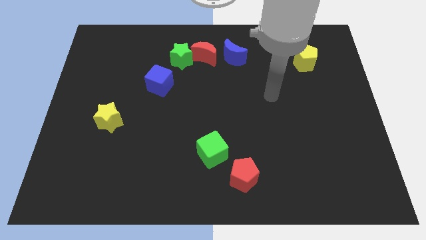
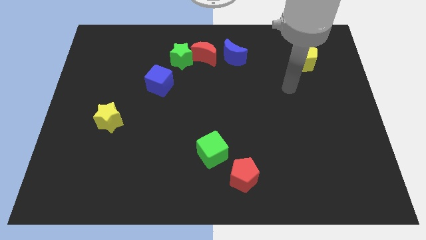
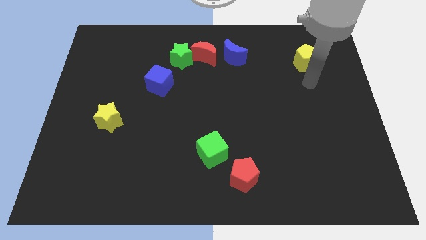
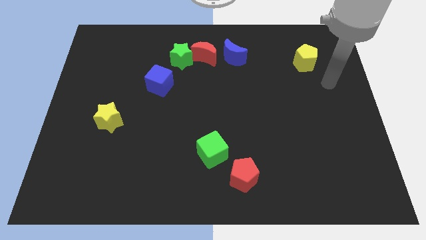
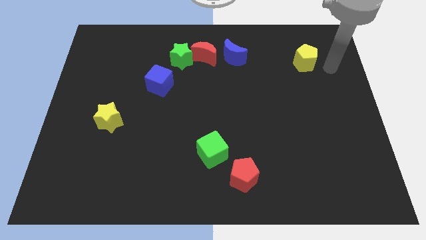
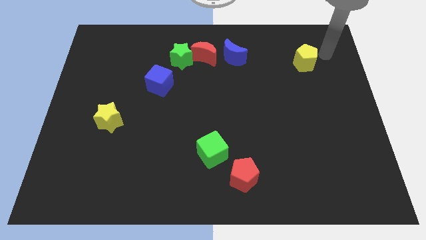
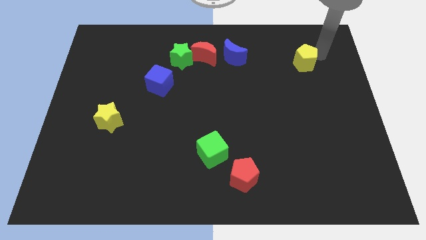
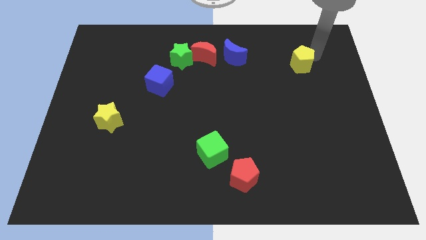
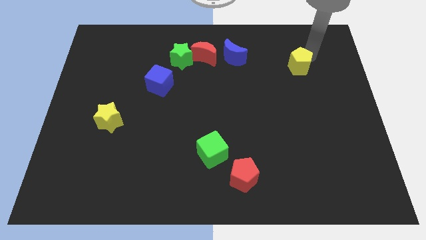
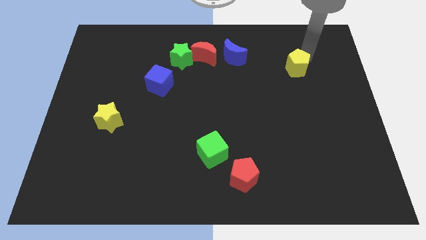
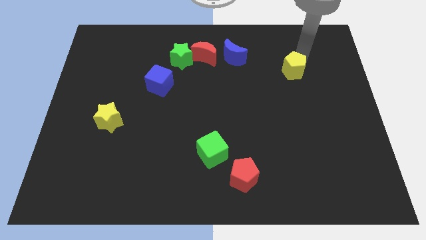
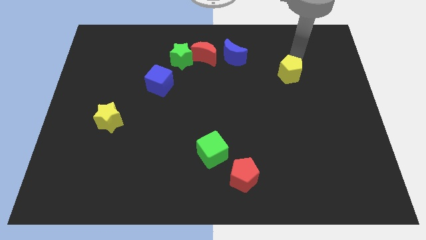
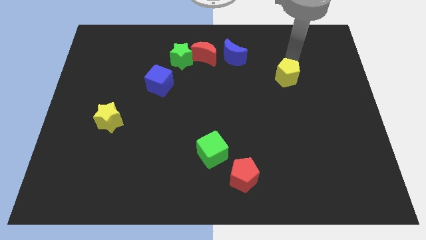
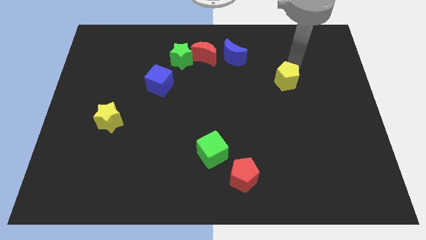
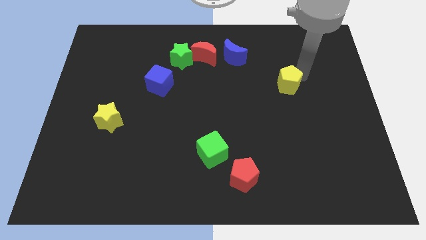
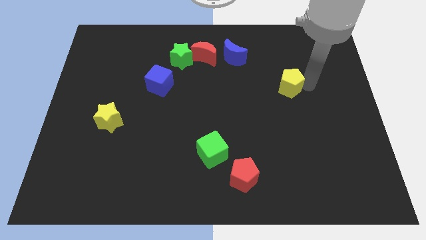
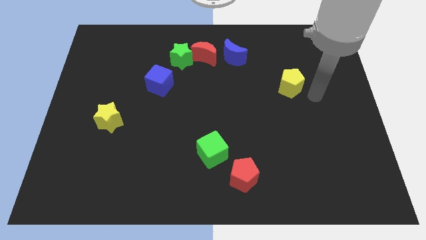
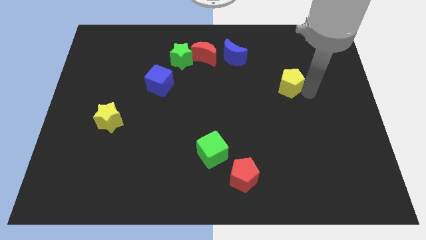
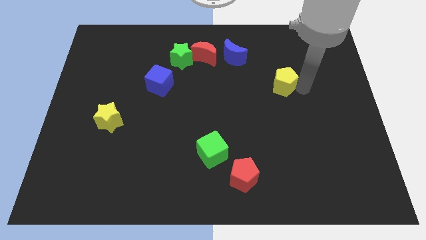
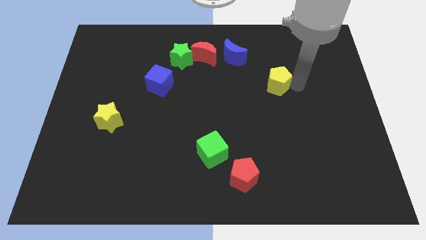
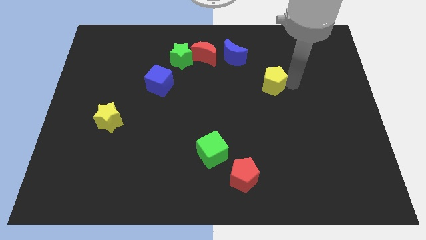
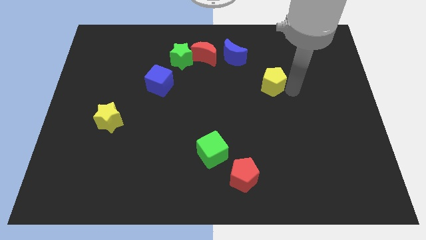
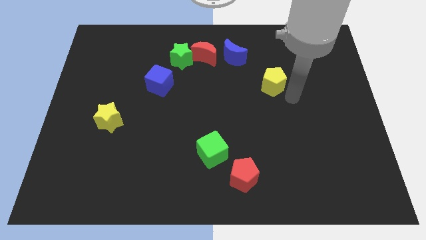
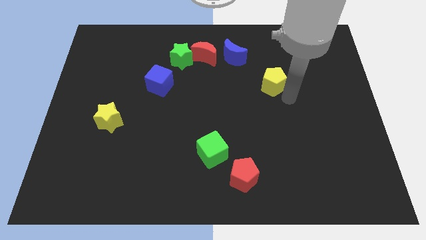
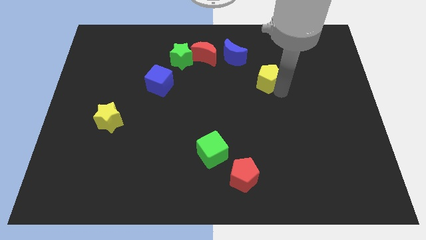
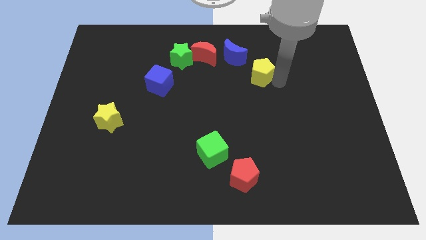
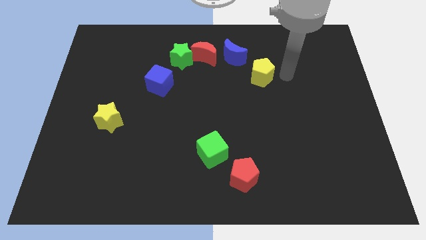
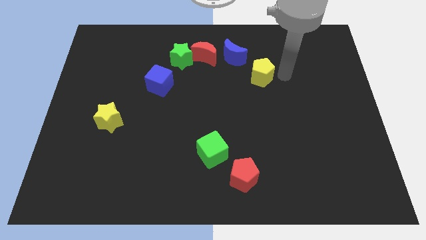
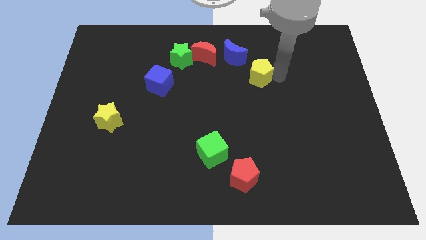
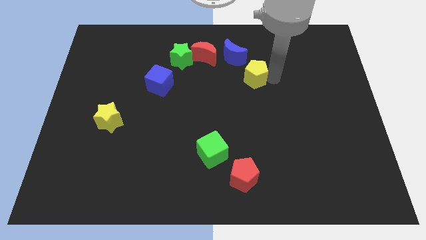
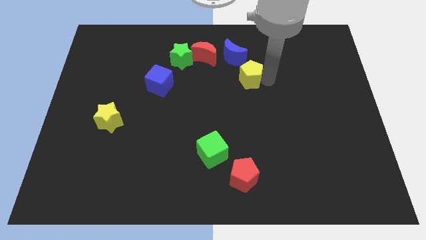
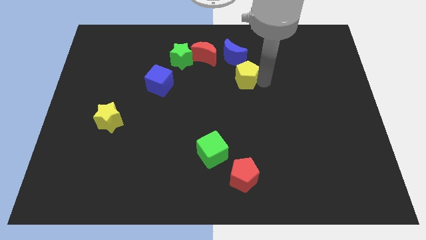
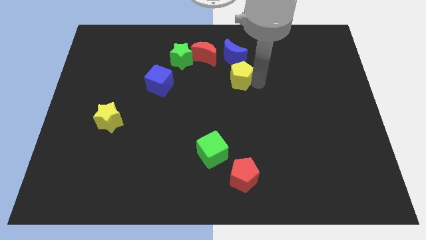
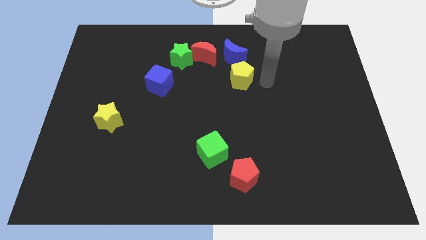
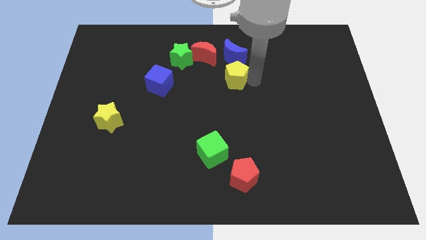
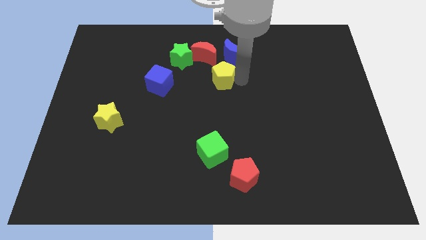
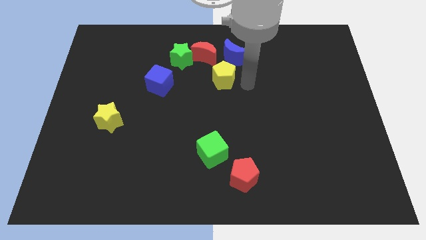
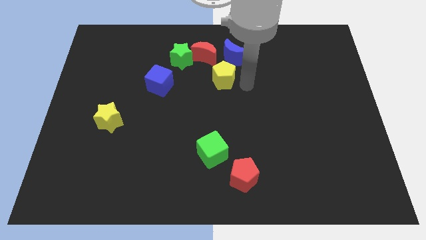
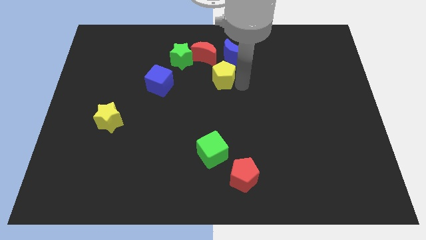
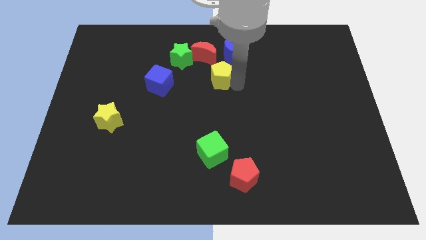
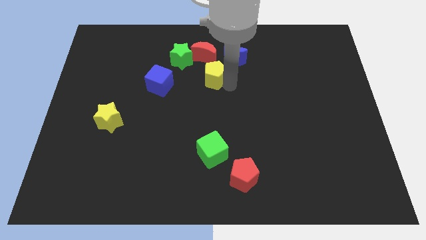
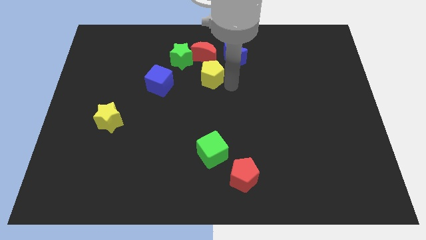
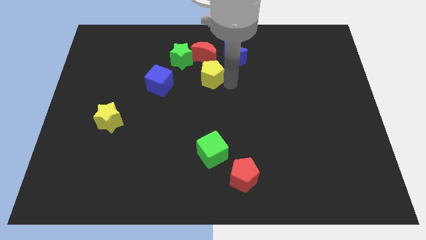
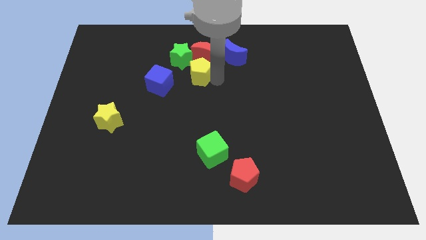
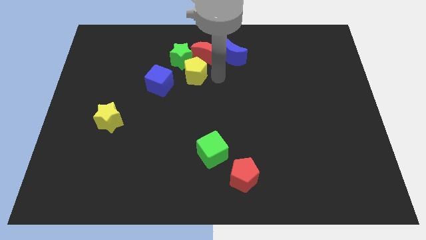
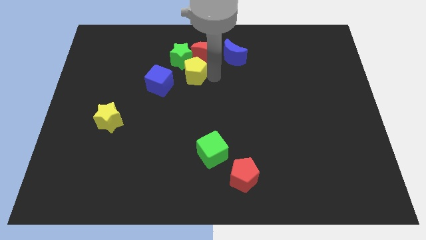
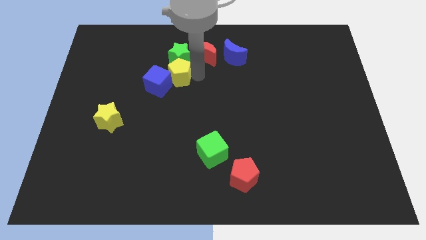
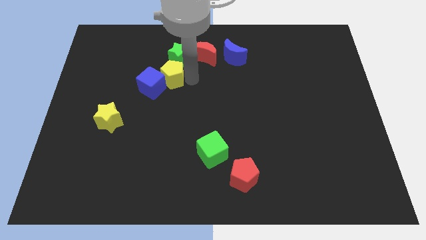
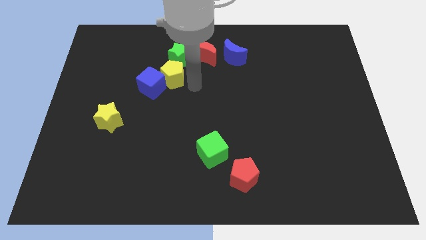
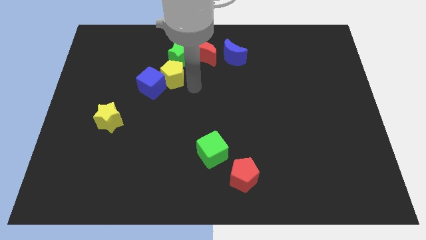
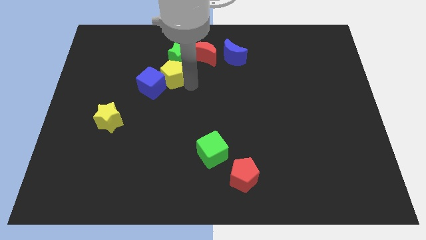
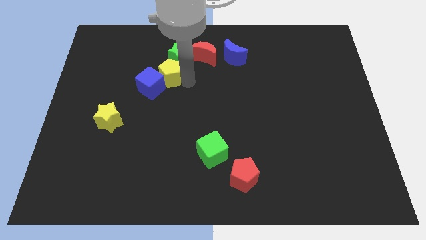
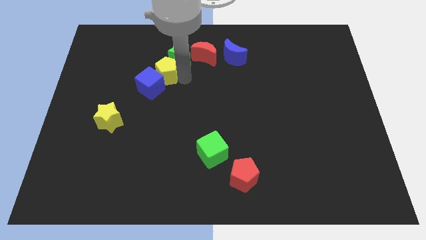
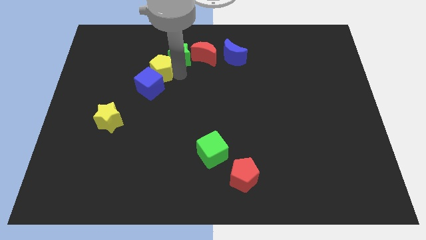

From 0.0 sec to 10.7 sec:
slide the yellow pentagon left of the green star

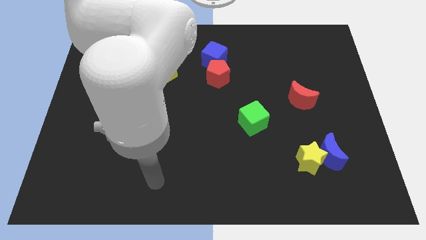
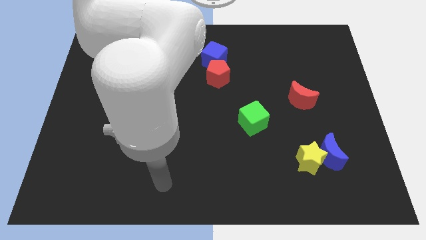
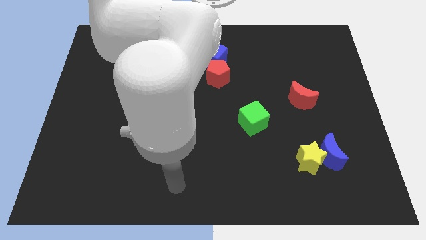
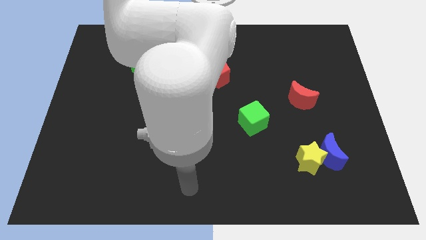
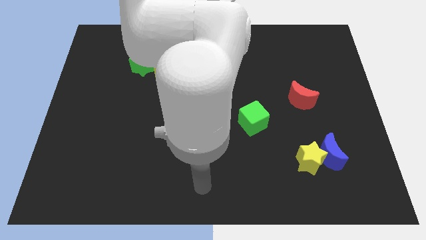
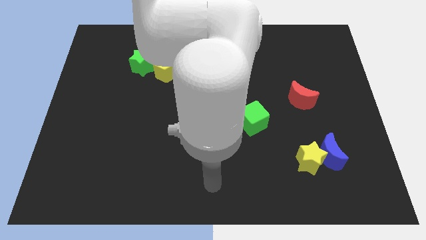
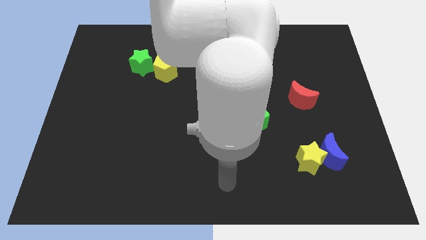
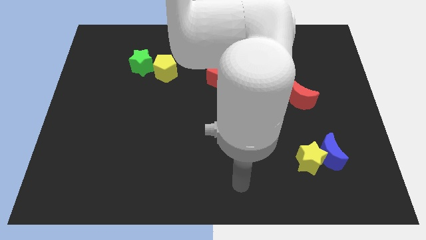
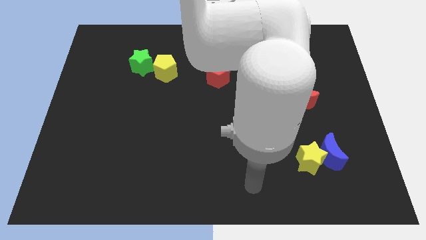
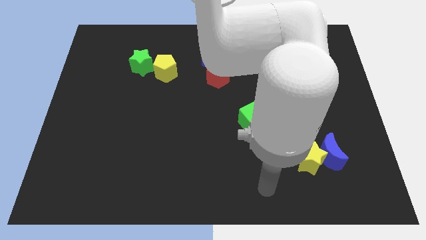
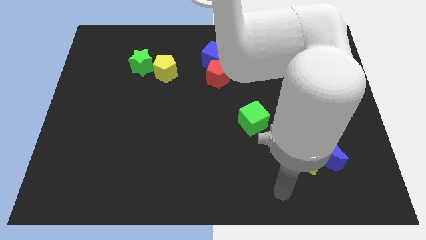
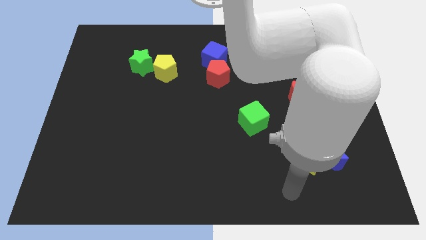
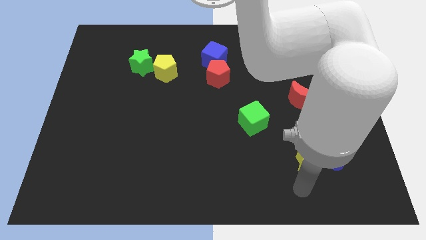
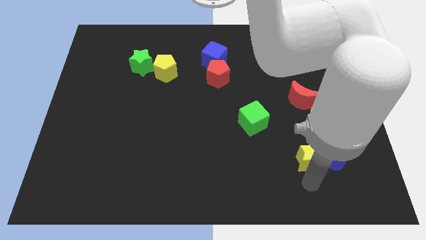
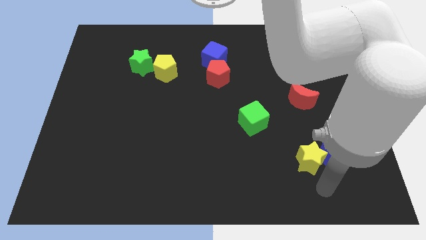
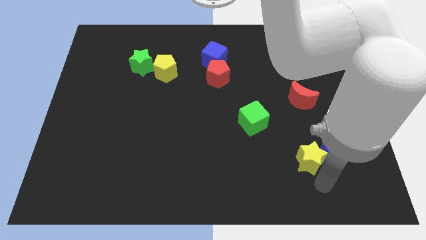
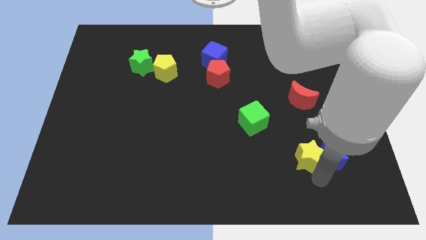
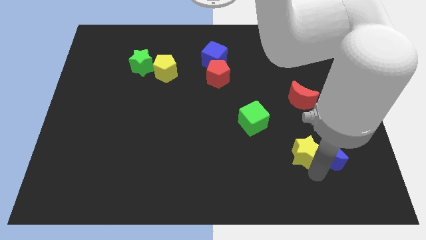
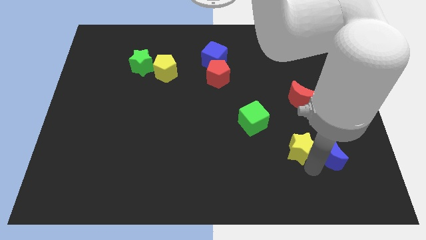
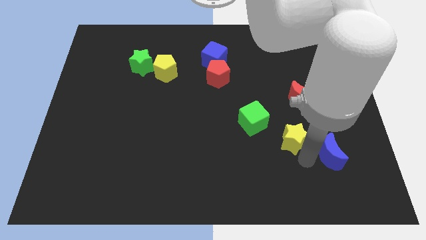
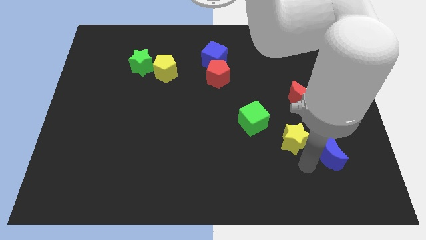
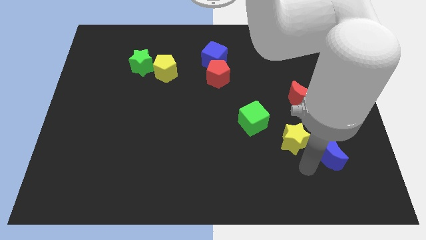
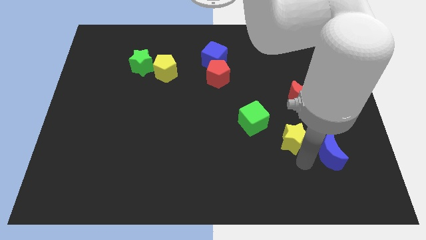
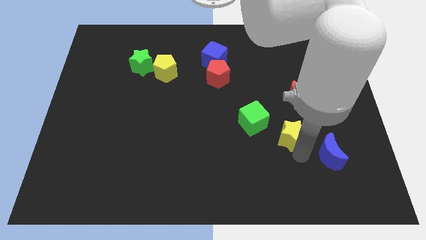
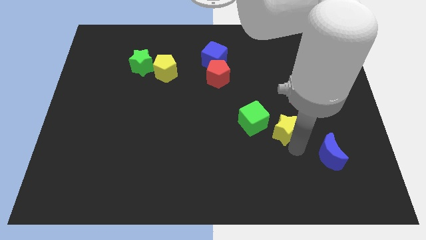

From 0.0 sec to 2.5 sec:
slide the yellow star to the bottom left side of the red moon
